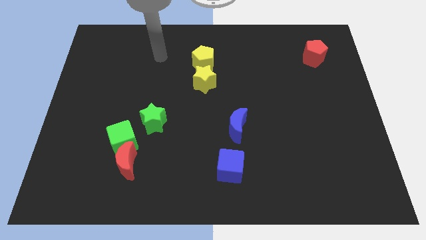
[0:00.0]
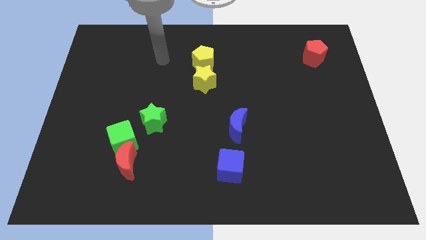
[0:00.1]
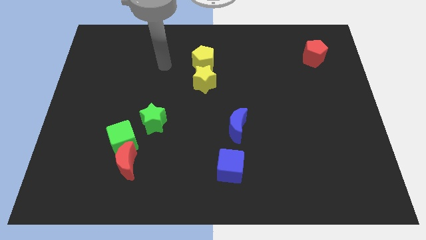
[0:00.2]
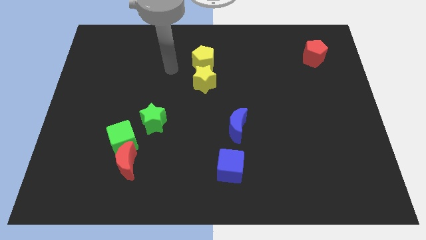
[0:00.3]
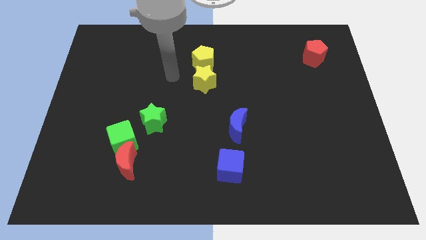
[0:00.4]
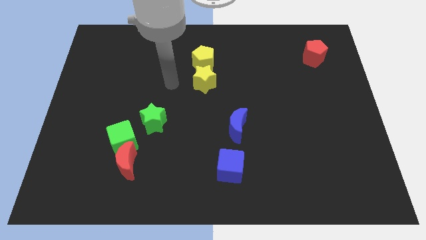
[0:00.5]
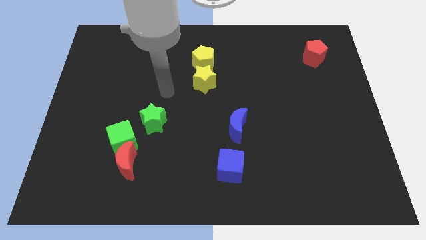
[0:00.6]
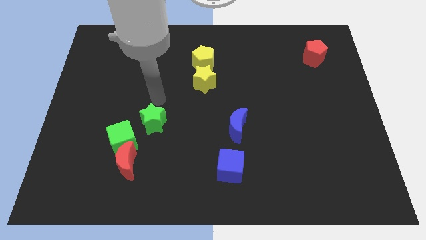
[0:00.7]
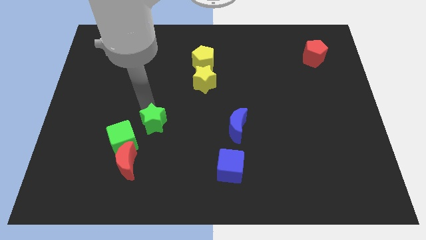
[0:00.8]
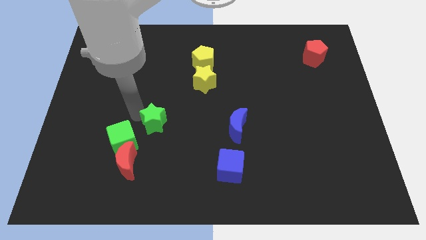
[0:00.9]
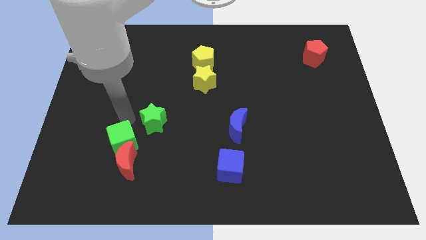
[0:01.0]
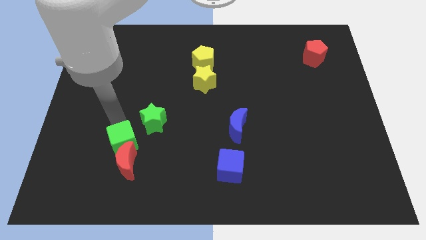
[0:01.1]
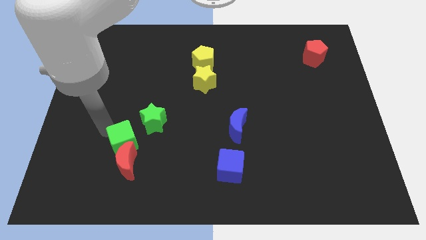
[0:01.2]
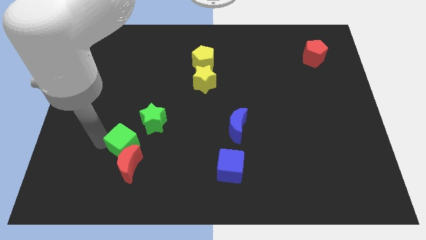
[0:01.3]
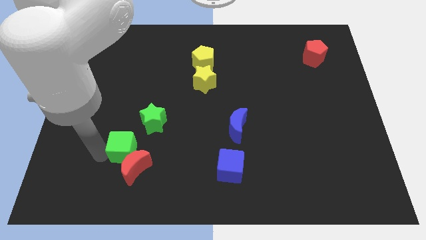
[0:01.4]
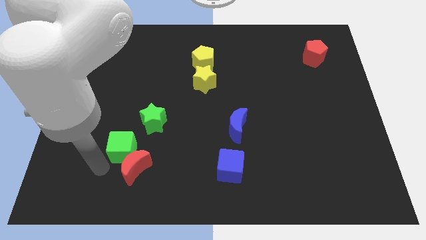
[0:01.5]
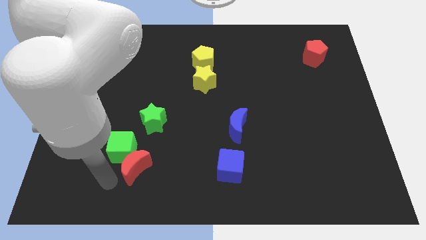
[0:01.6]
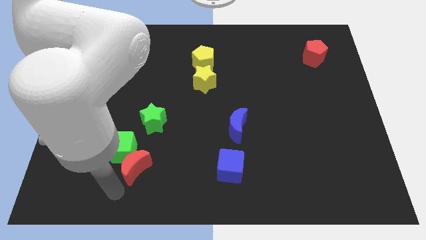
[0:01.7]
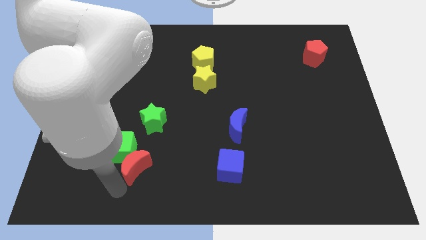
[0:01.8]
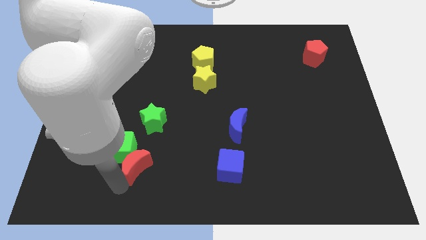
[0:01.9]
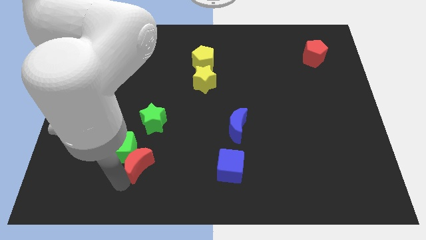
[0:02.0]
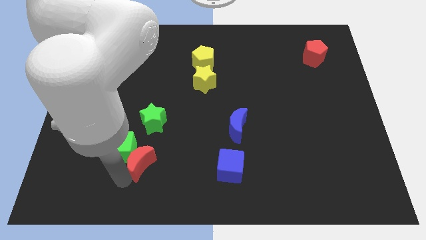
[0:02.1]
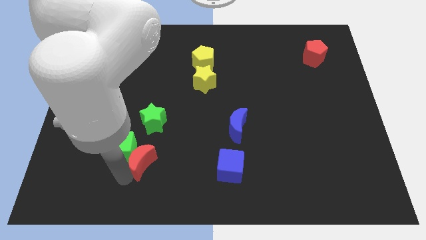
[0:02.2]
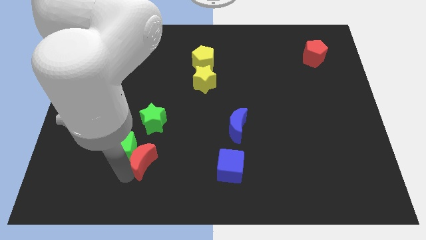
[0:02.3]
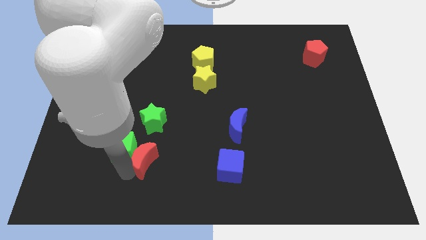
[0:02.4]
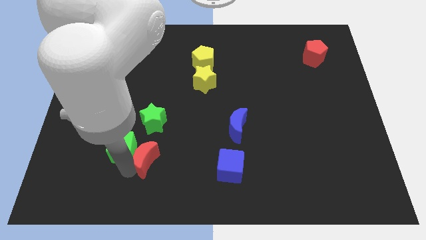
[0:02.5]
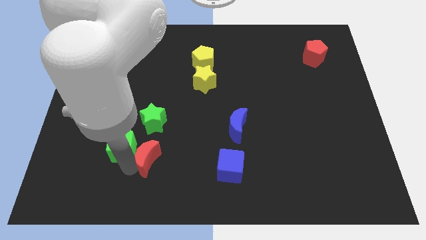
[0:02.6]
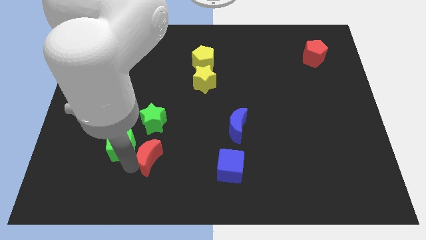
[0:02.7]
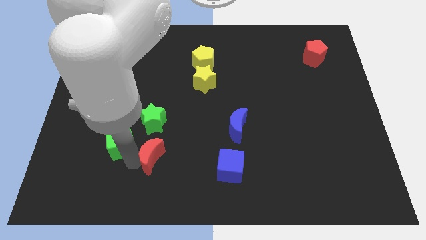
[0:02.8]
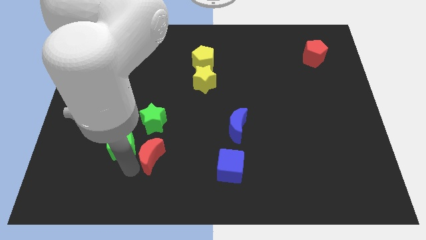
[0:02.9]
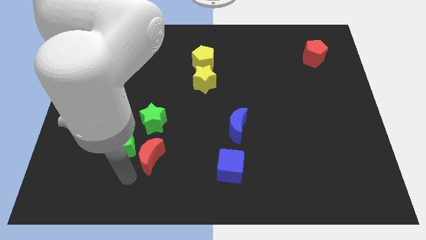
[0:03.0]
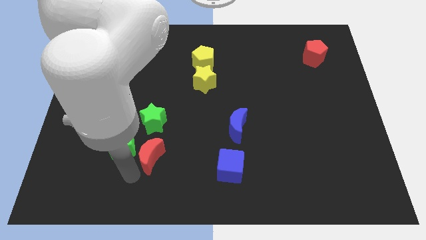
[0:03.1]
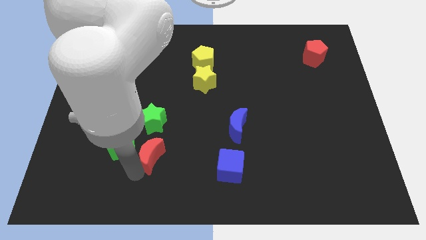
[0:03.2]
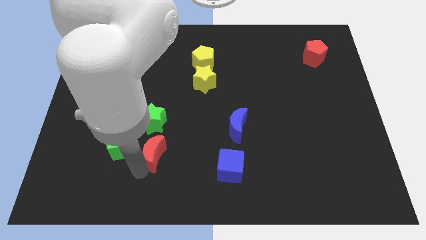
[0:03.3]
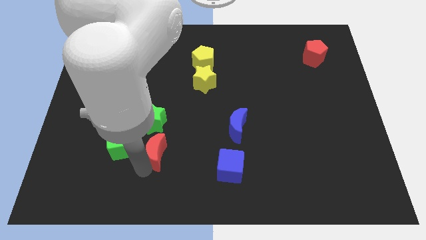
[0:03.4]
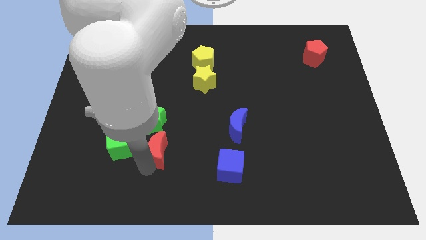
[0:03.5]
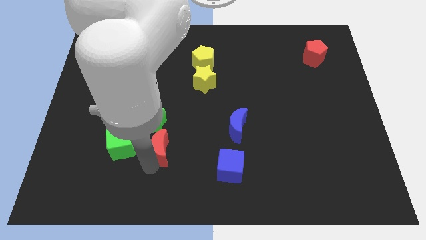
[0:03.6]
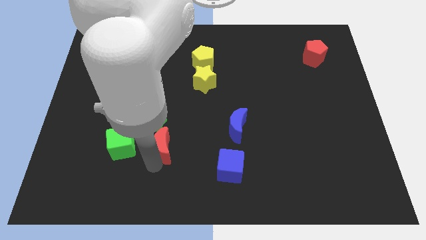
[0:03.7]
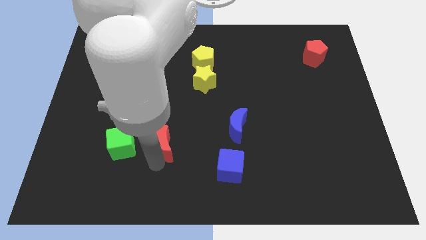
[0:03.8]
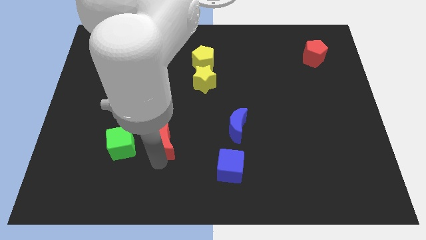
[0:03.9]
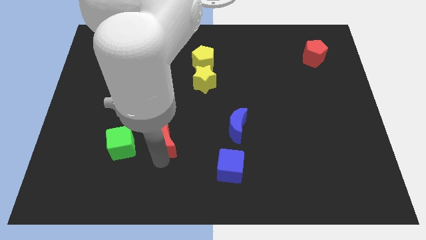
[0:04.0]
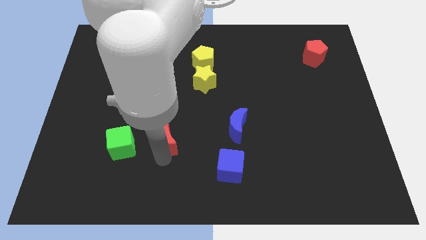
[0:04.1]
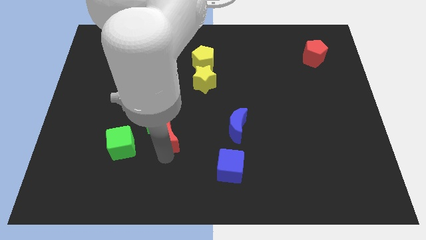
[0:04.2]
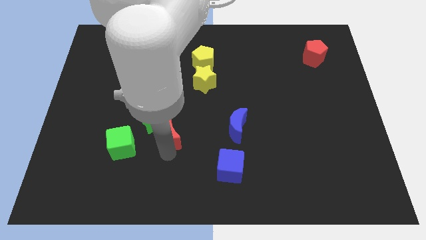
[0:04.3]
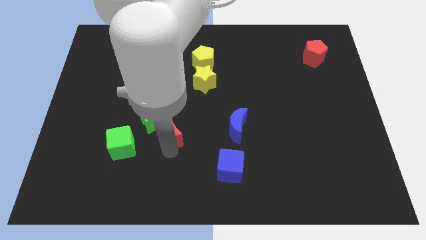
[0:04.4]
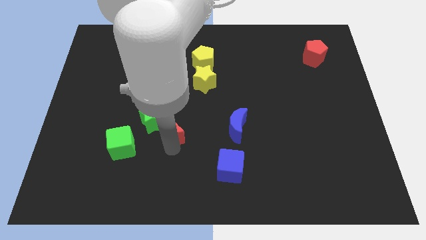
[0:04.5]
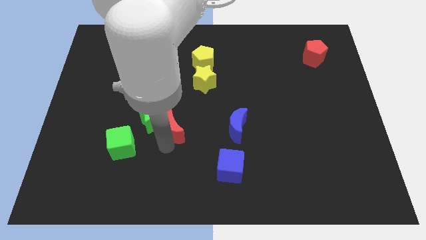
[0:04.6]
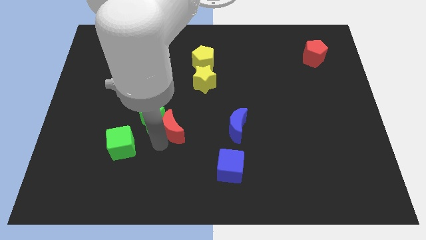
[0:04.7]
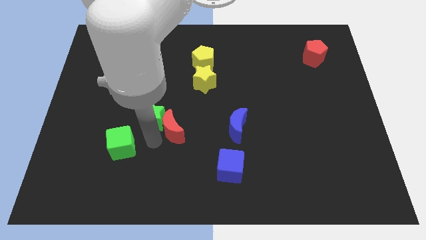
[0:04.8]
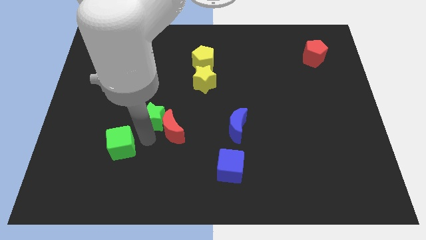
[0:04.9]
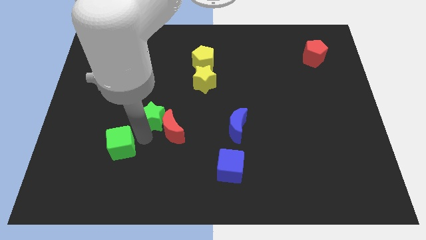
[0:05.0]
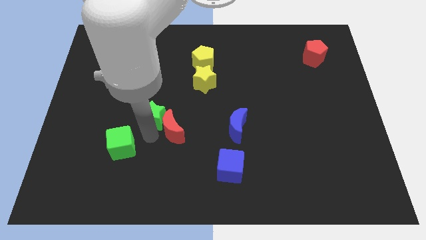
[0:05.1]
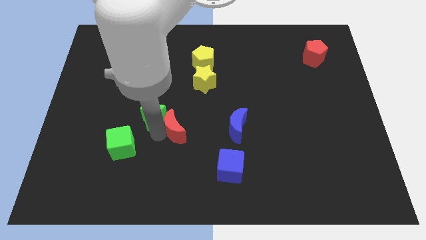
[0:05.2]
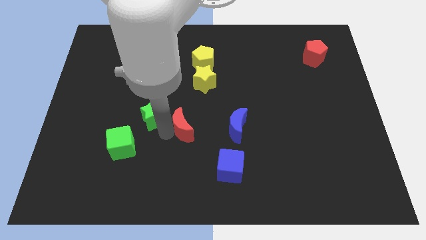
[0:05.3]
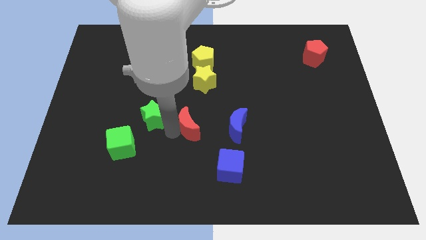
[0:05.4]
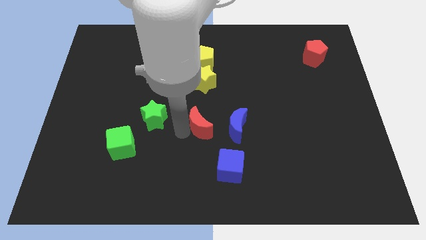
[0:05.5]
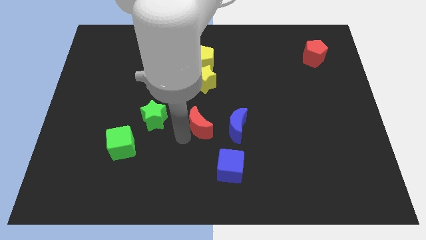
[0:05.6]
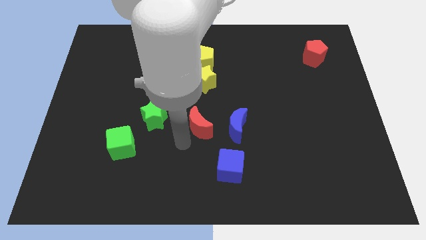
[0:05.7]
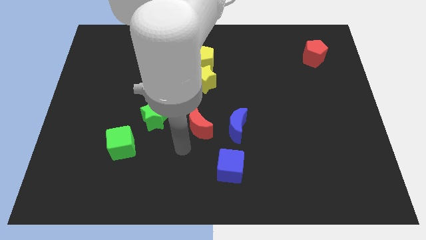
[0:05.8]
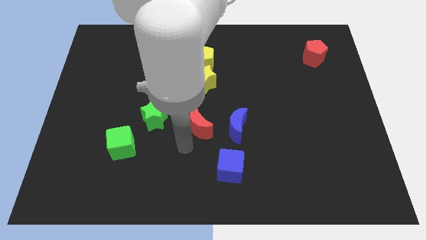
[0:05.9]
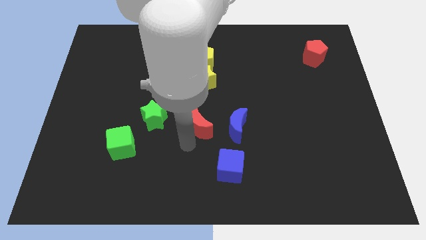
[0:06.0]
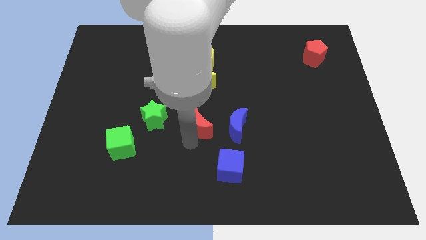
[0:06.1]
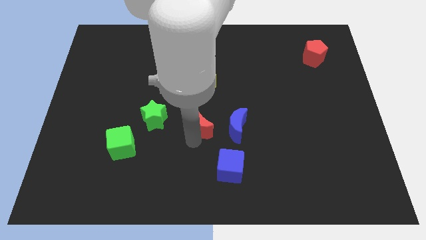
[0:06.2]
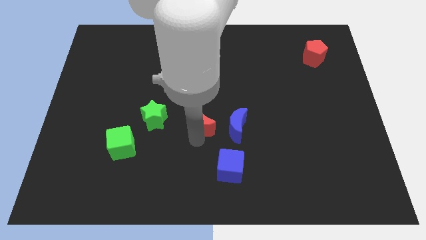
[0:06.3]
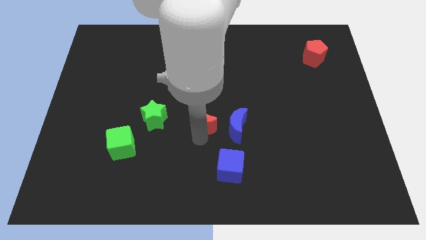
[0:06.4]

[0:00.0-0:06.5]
slide the red moon to the top left side of the blue moon

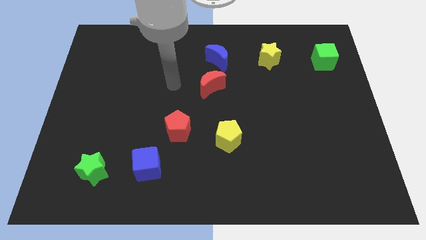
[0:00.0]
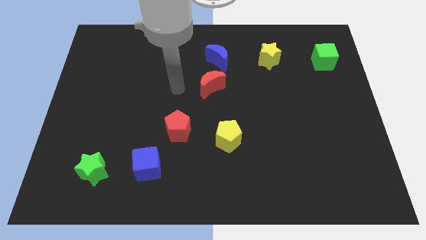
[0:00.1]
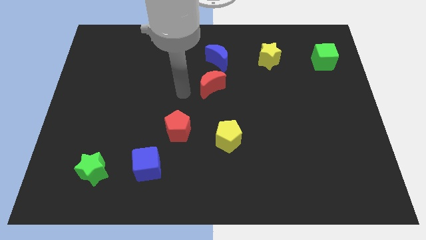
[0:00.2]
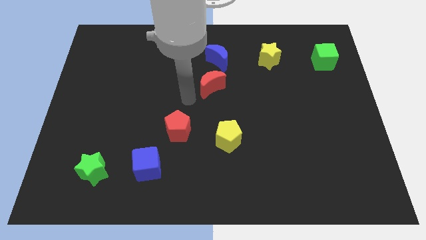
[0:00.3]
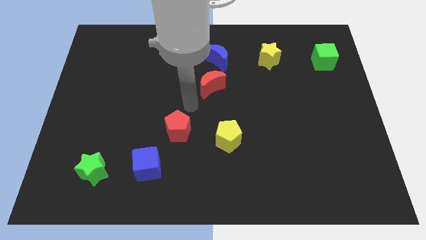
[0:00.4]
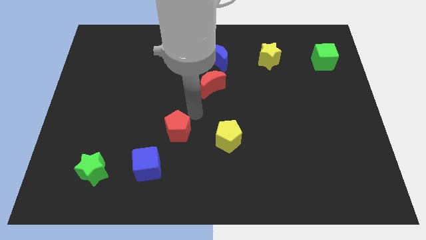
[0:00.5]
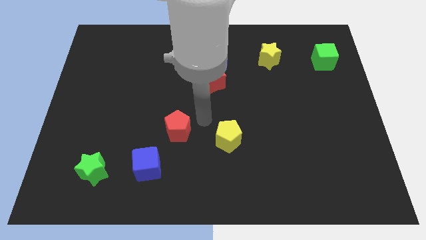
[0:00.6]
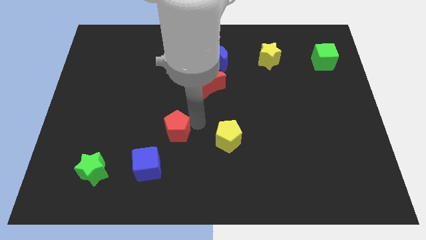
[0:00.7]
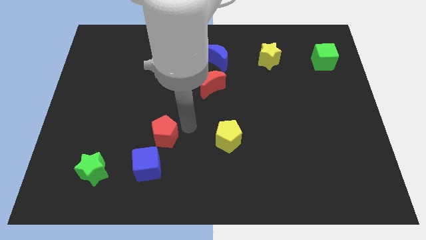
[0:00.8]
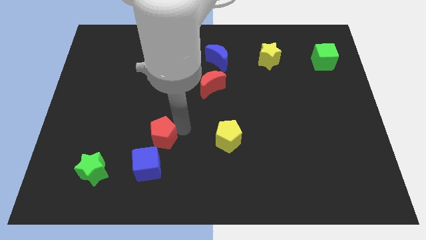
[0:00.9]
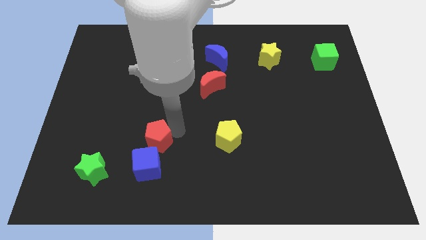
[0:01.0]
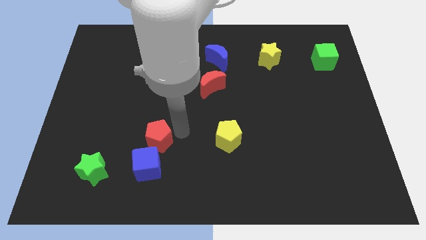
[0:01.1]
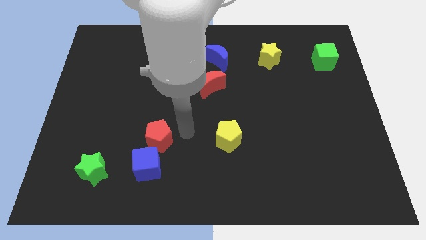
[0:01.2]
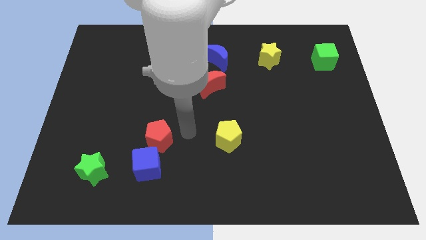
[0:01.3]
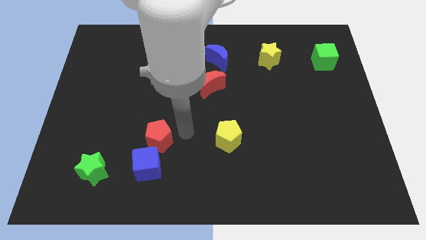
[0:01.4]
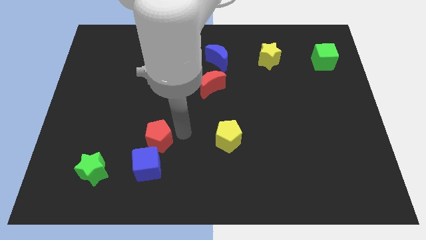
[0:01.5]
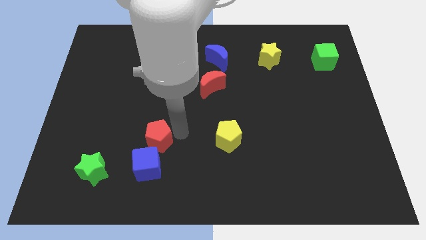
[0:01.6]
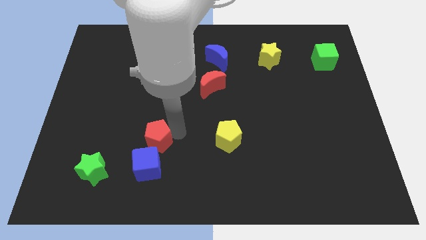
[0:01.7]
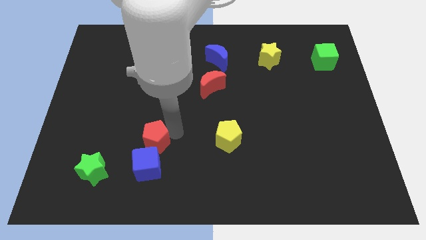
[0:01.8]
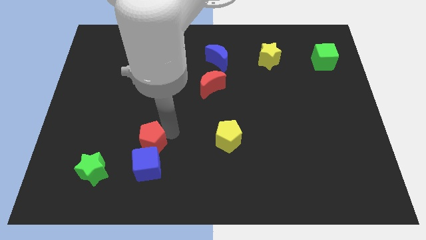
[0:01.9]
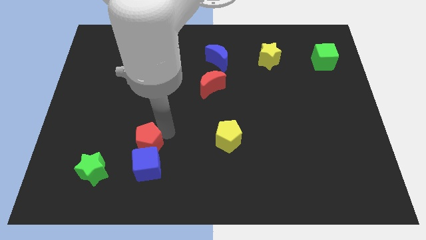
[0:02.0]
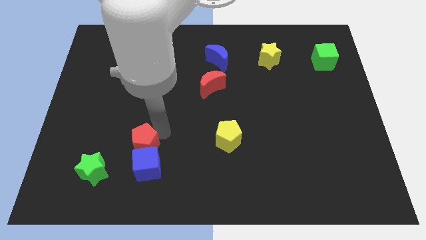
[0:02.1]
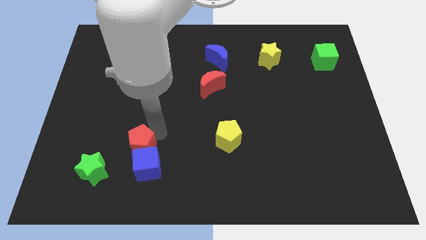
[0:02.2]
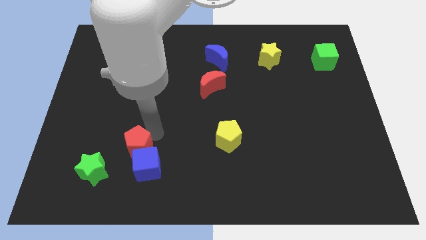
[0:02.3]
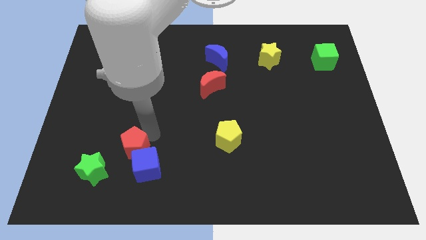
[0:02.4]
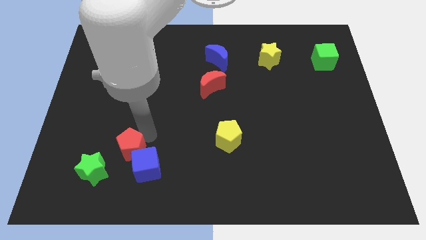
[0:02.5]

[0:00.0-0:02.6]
put the red pentagon to the left of the blue cube
